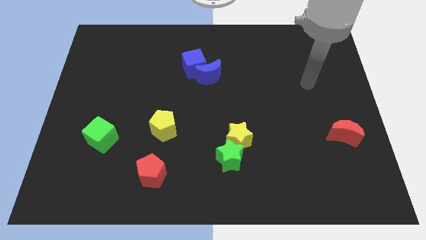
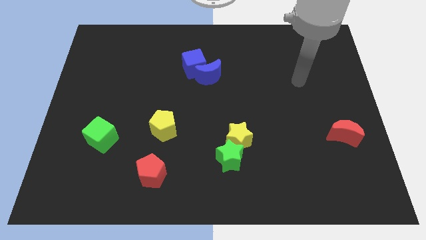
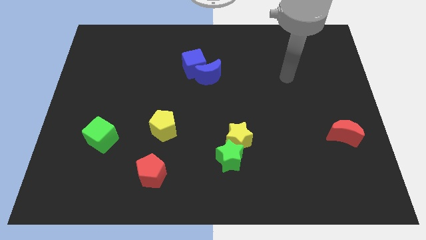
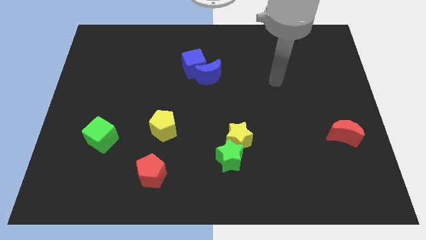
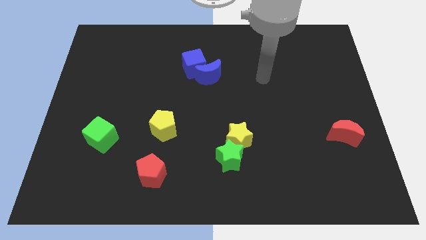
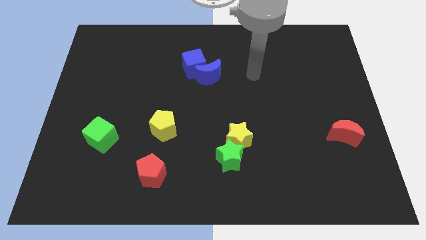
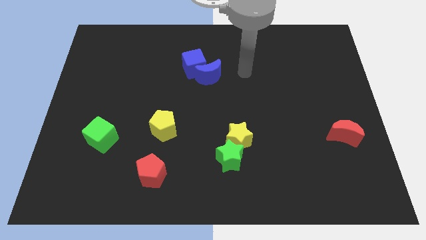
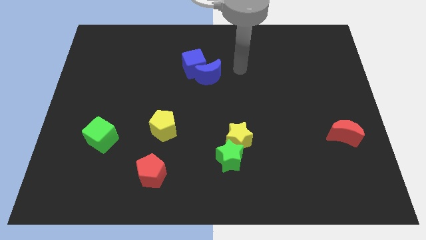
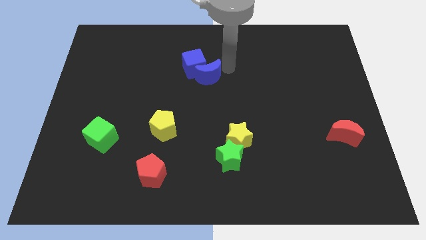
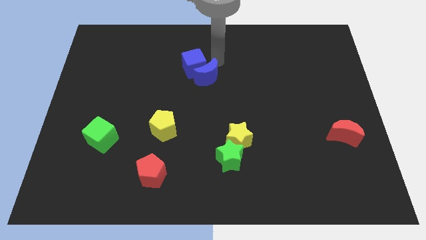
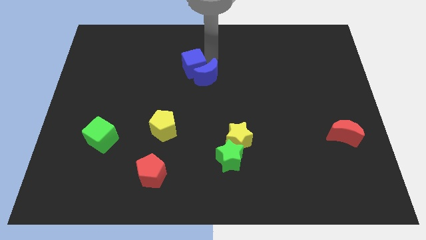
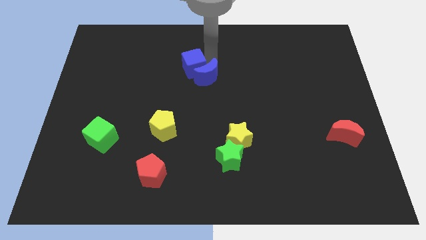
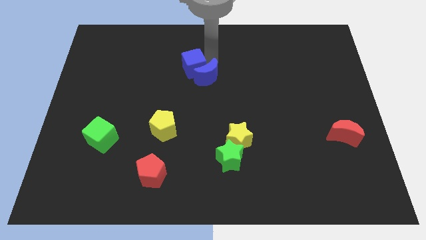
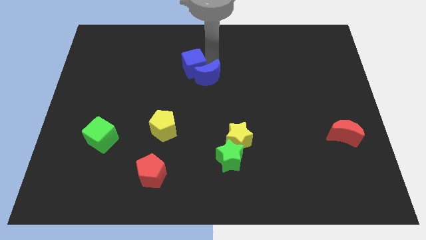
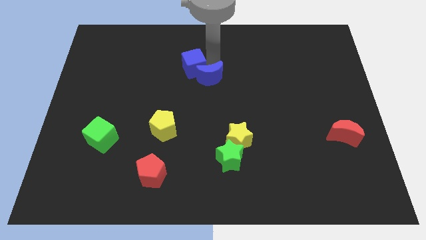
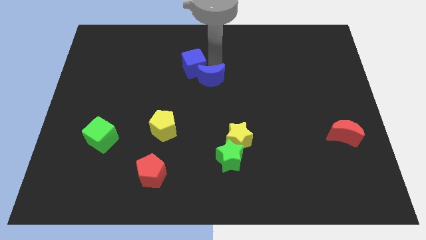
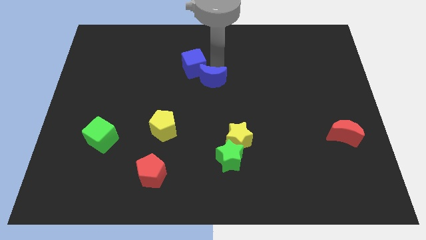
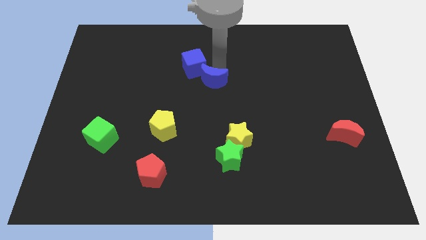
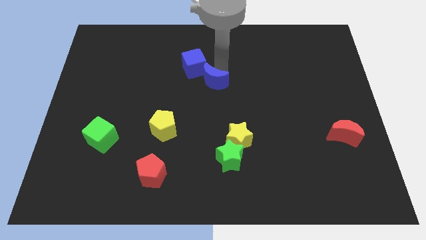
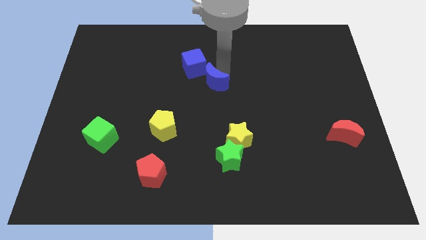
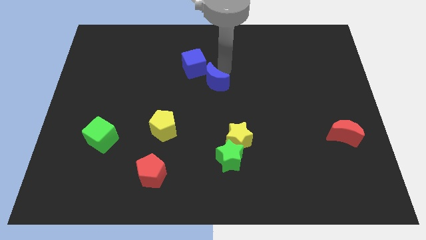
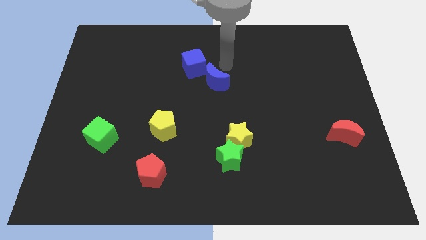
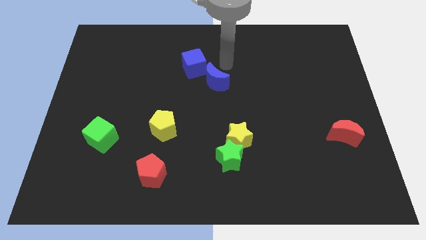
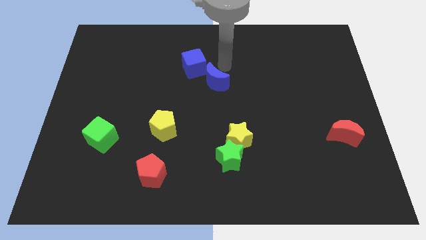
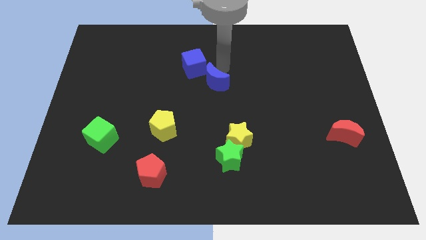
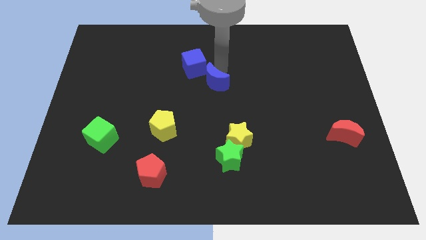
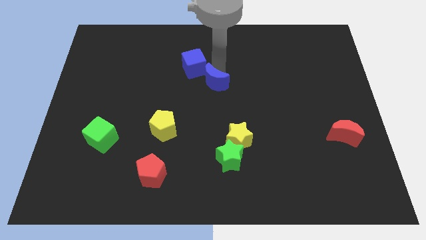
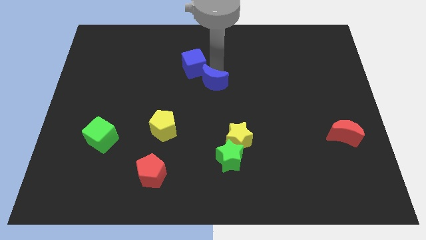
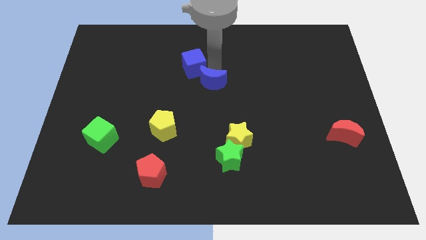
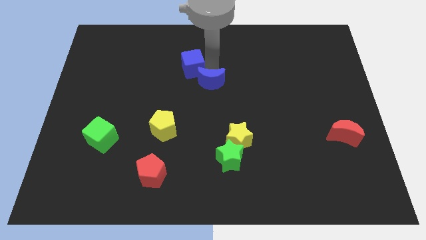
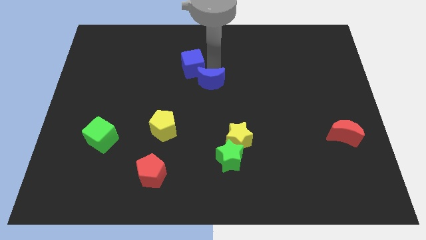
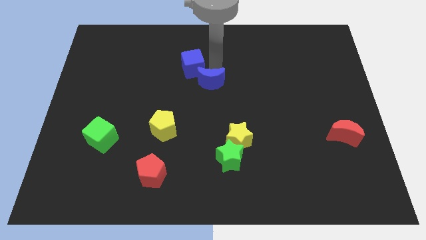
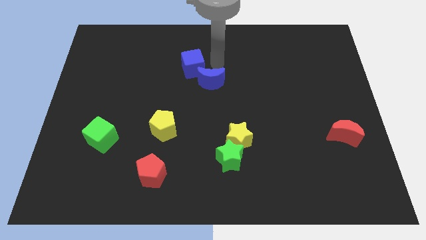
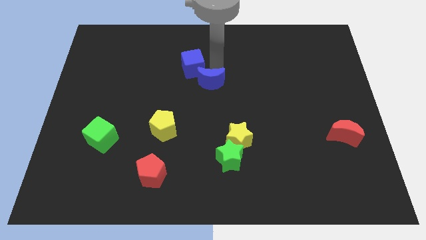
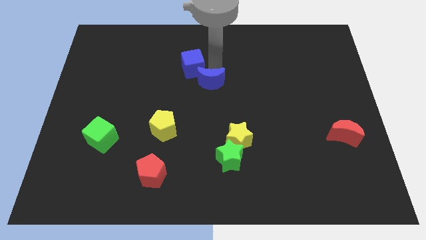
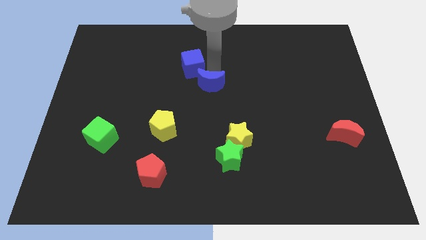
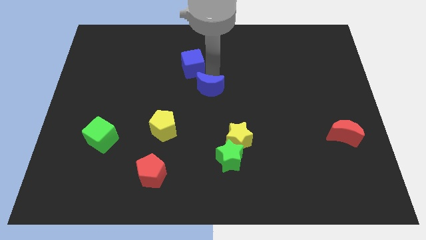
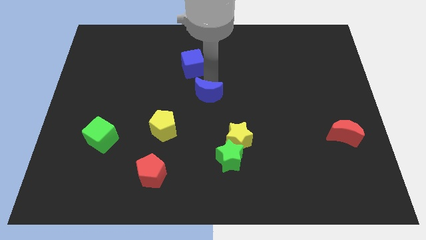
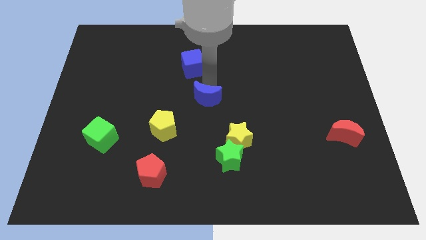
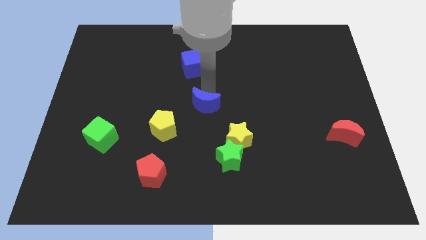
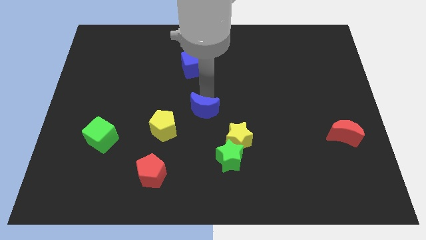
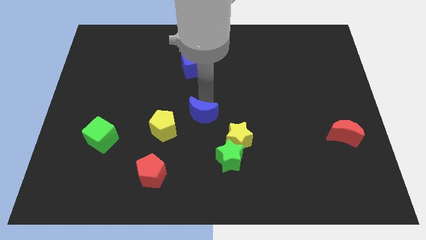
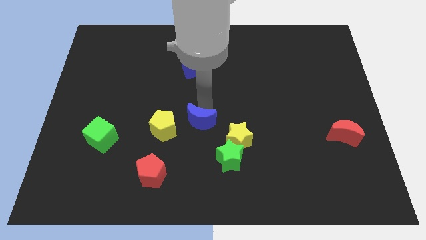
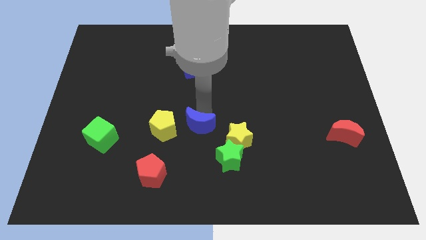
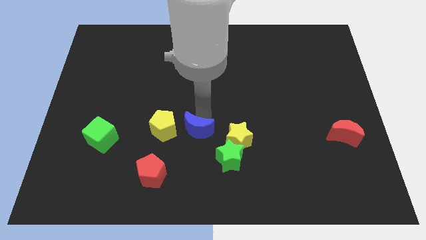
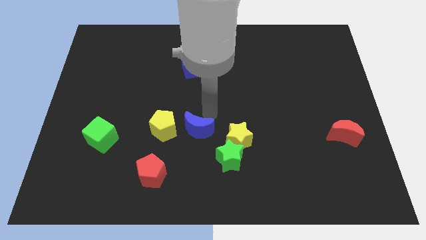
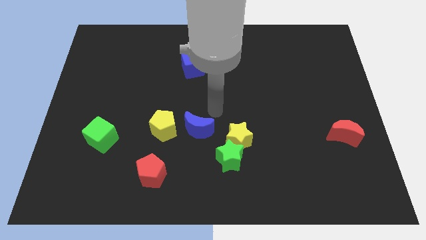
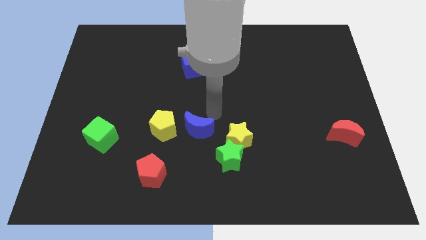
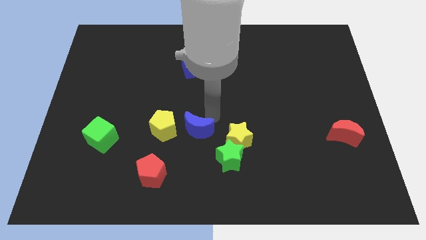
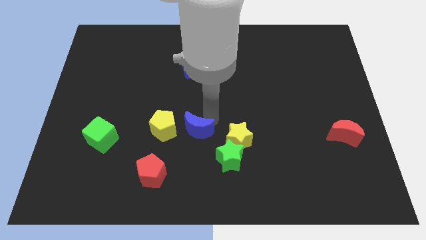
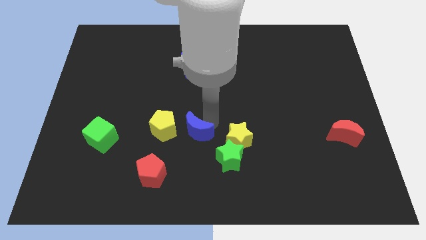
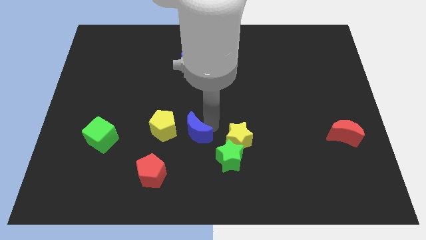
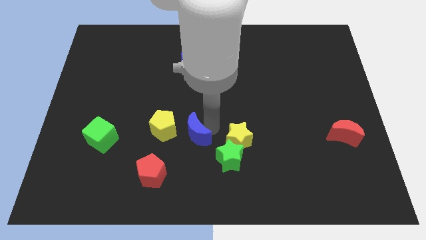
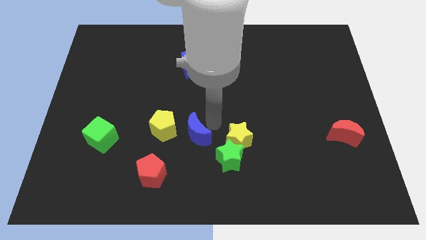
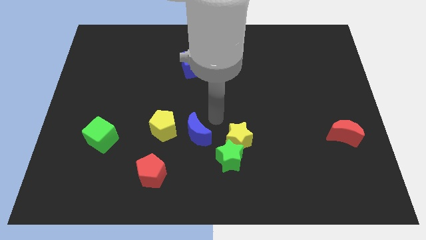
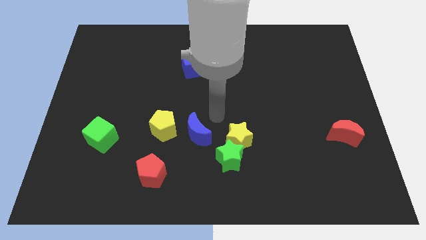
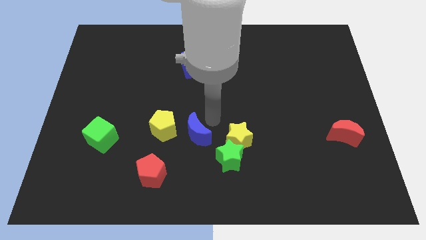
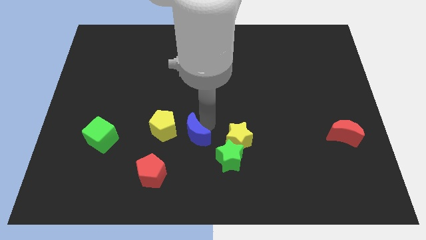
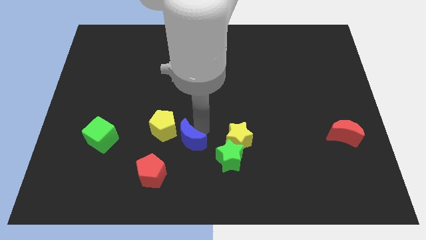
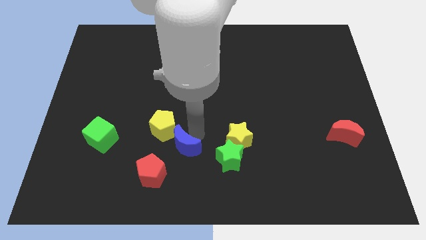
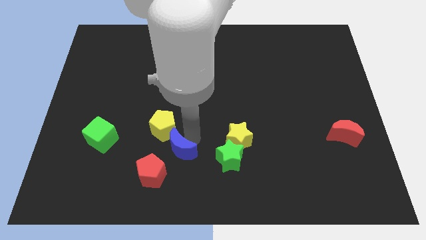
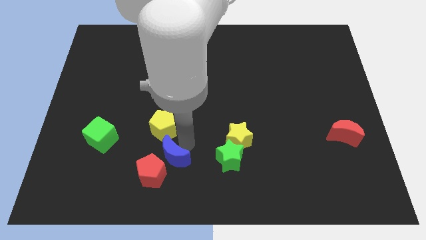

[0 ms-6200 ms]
move the blue moon close to the red pentagon
